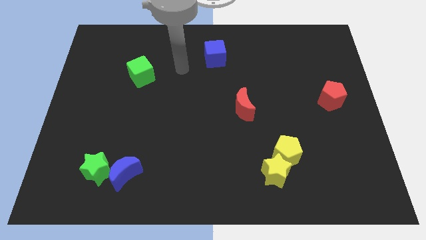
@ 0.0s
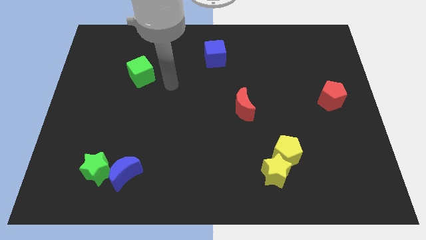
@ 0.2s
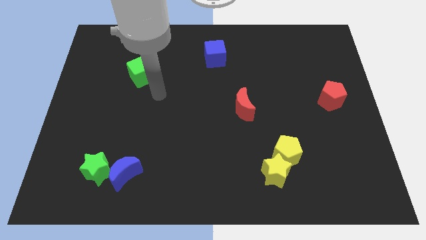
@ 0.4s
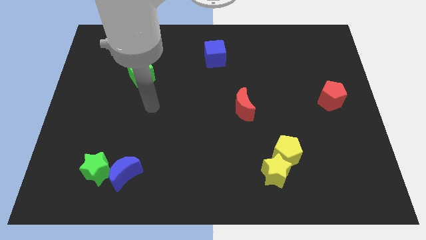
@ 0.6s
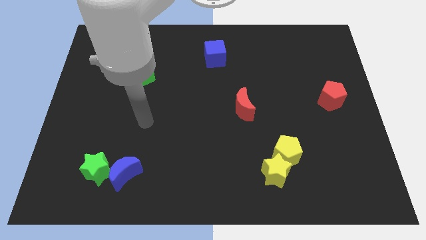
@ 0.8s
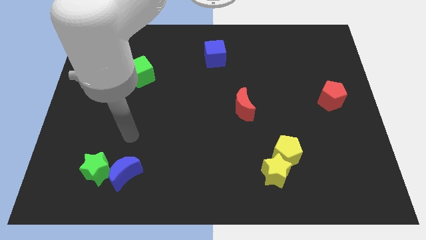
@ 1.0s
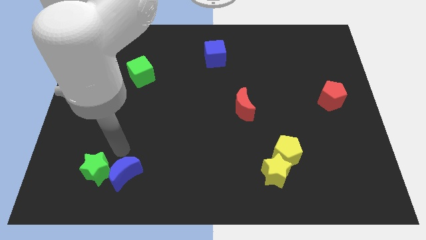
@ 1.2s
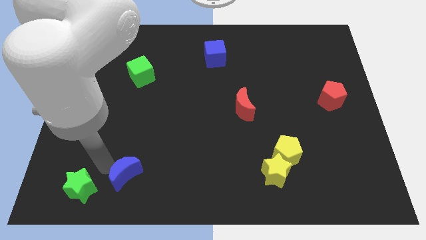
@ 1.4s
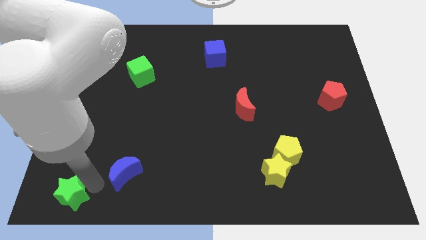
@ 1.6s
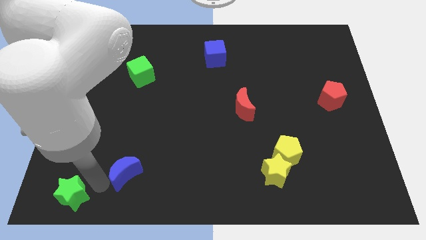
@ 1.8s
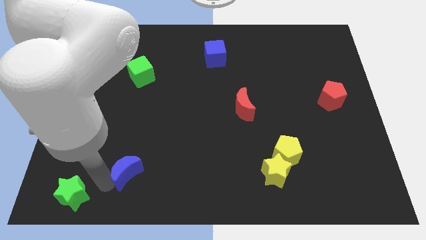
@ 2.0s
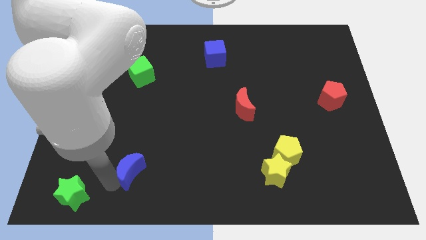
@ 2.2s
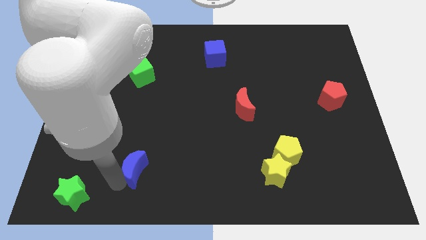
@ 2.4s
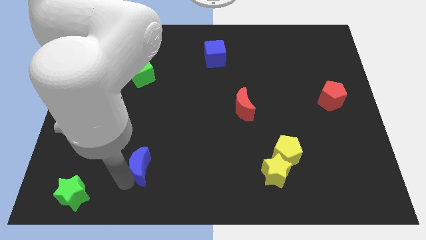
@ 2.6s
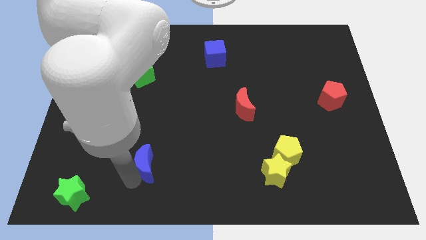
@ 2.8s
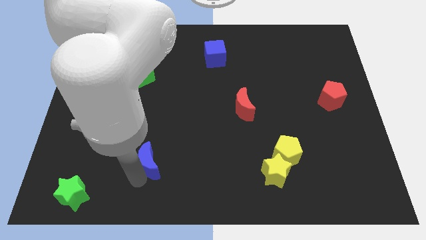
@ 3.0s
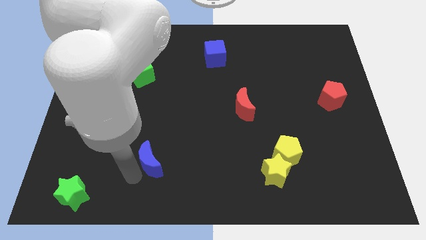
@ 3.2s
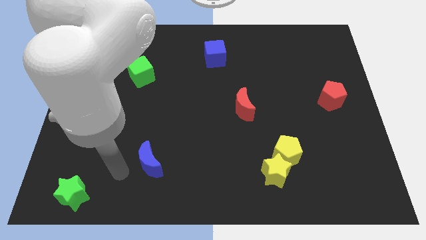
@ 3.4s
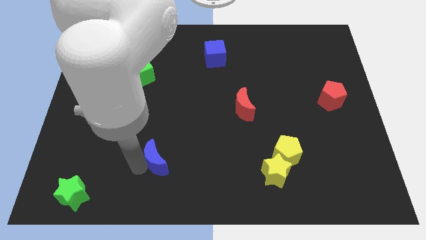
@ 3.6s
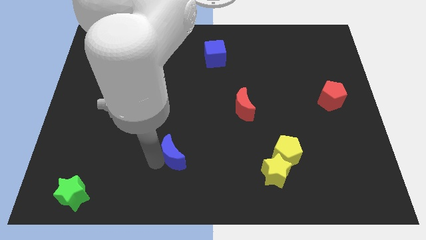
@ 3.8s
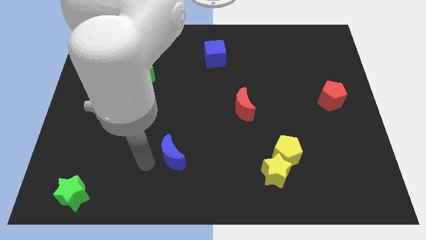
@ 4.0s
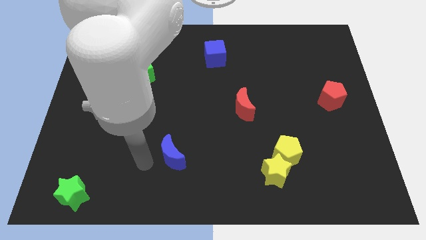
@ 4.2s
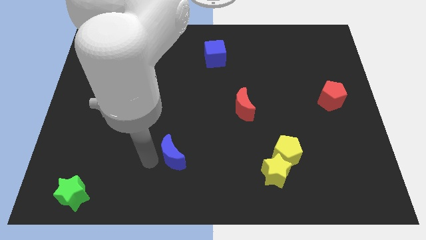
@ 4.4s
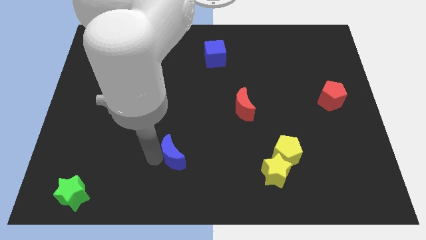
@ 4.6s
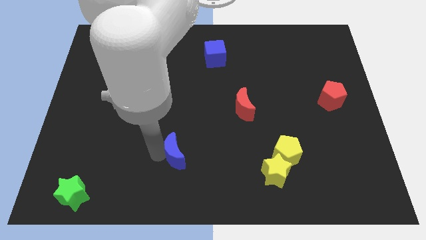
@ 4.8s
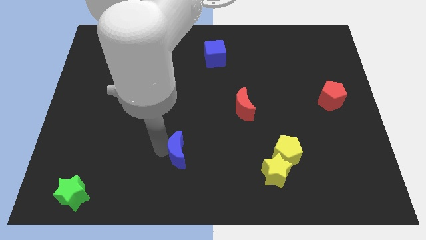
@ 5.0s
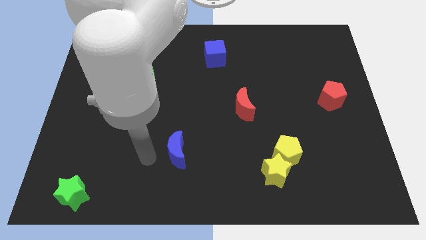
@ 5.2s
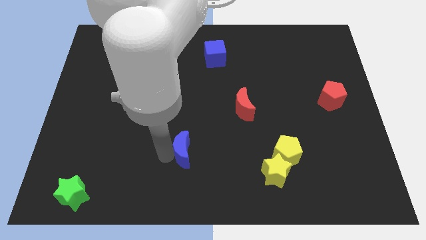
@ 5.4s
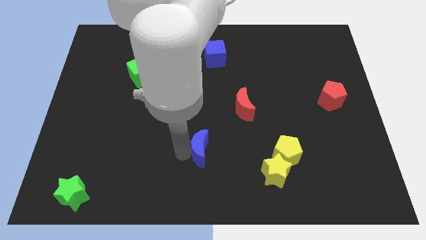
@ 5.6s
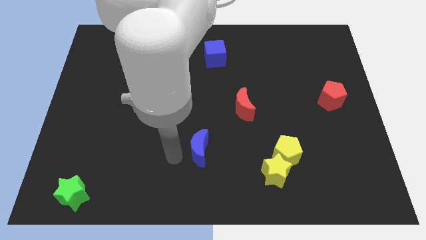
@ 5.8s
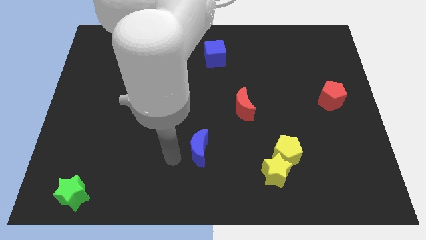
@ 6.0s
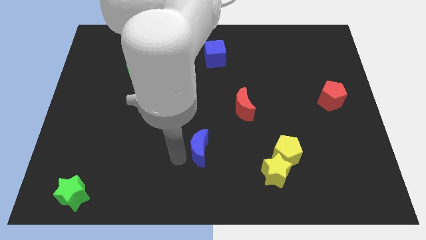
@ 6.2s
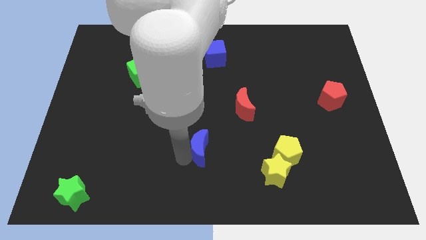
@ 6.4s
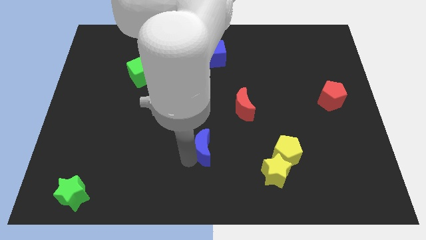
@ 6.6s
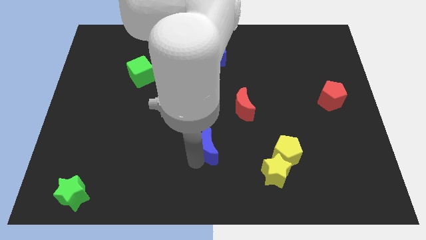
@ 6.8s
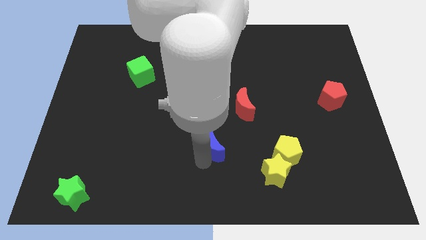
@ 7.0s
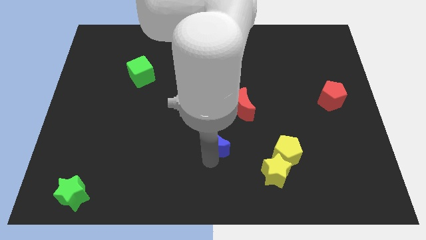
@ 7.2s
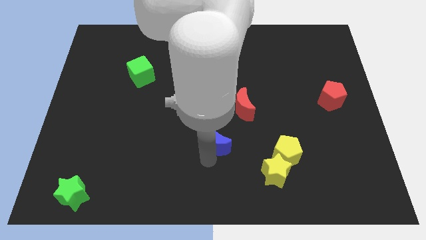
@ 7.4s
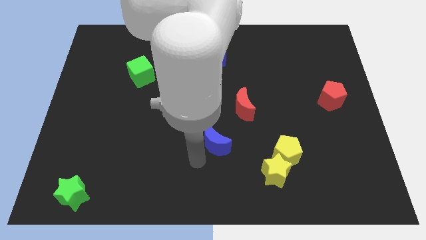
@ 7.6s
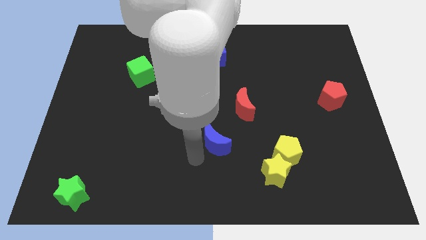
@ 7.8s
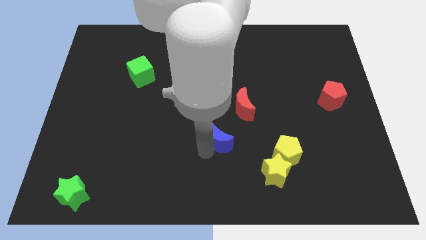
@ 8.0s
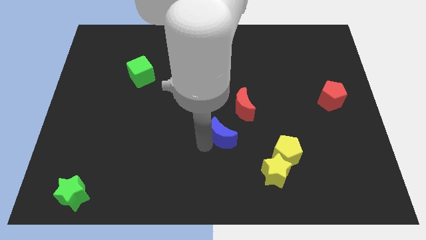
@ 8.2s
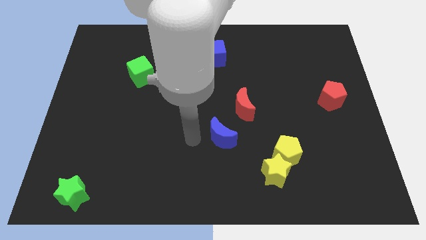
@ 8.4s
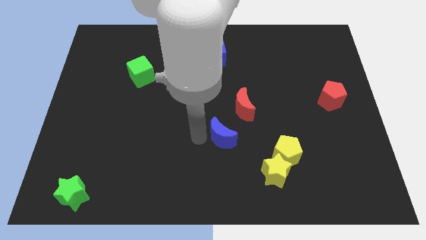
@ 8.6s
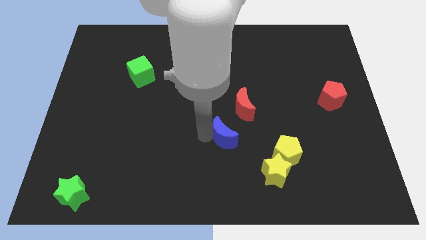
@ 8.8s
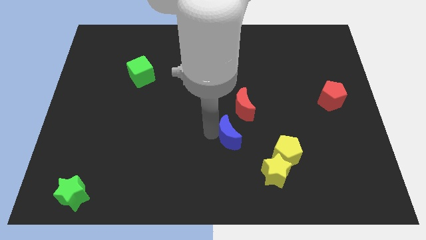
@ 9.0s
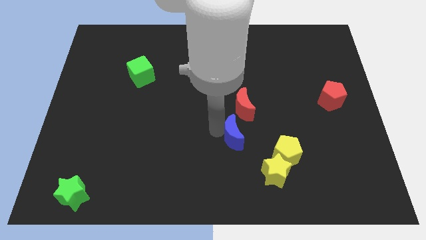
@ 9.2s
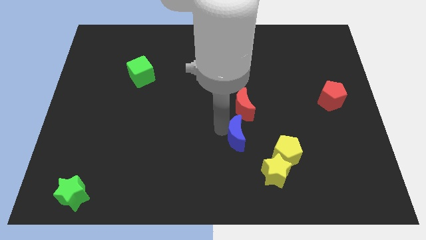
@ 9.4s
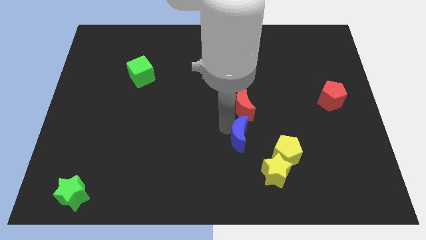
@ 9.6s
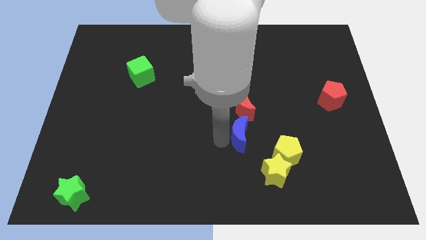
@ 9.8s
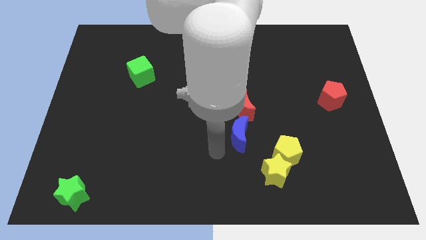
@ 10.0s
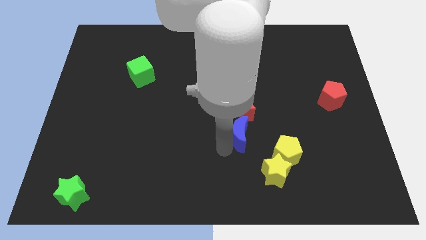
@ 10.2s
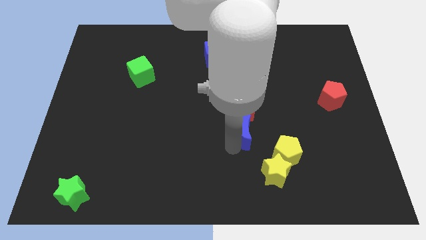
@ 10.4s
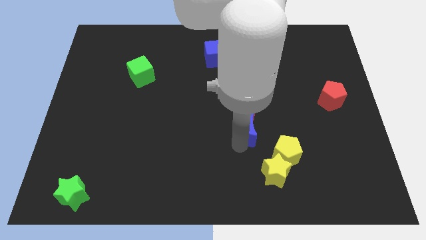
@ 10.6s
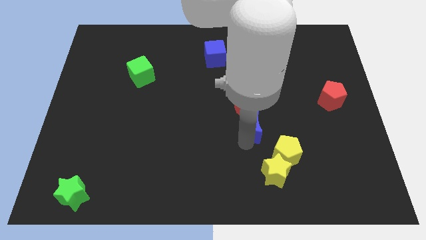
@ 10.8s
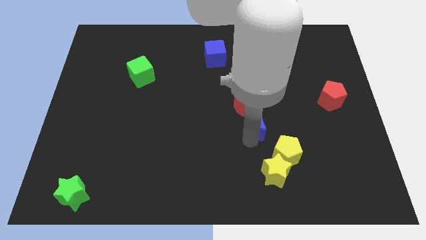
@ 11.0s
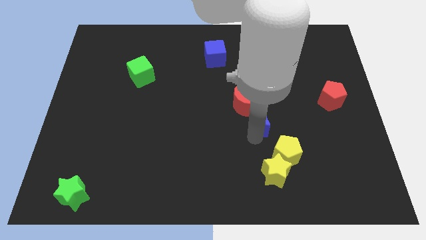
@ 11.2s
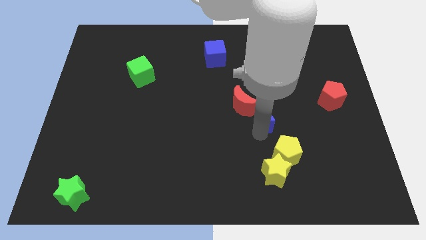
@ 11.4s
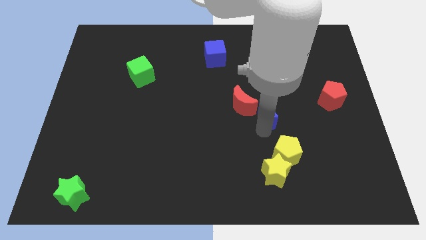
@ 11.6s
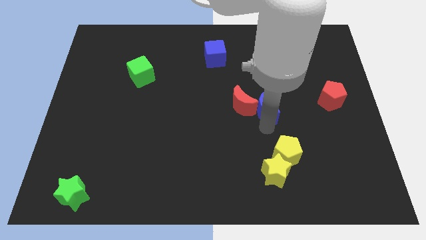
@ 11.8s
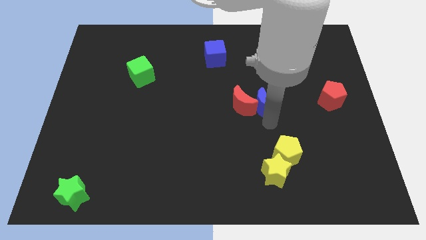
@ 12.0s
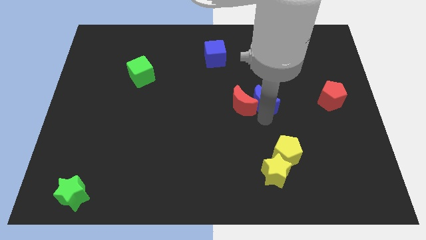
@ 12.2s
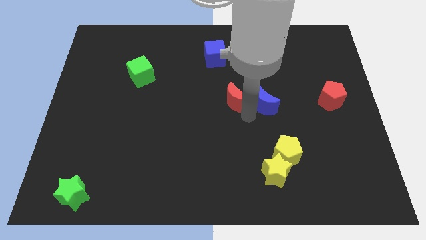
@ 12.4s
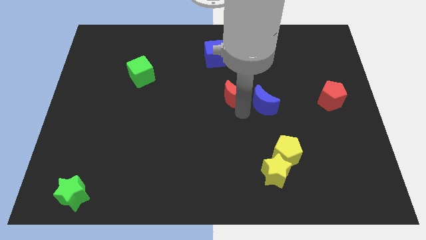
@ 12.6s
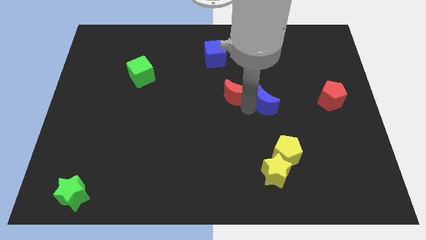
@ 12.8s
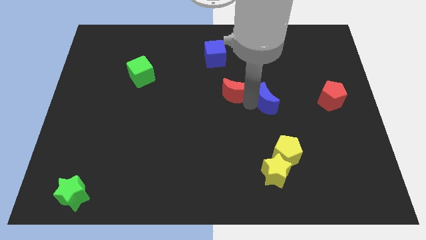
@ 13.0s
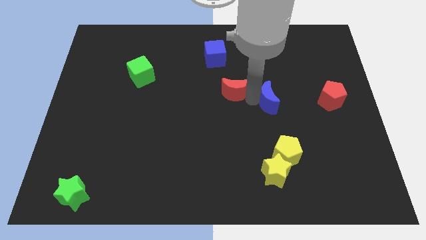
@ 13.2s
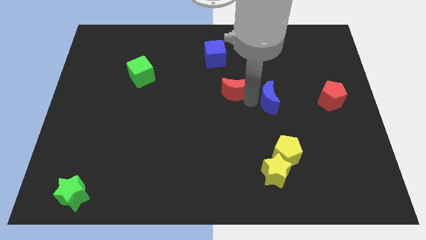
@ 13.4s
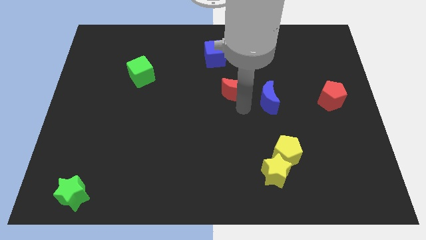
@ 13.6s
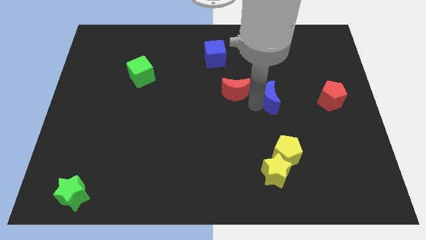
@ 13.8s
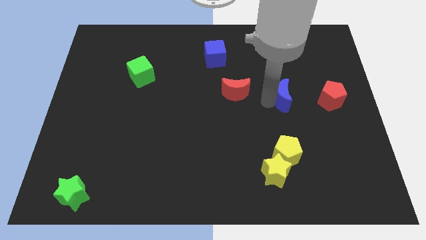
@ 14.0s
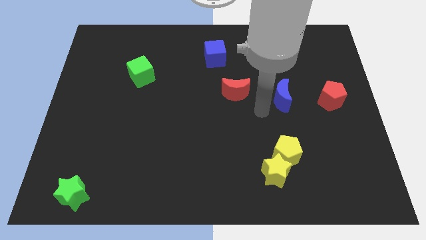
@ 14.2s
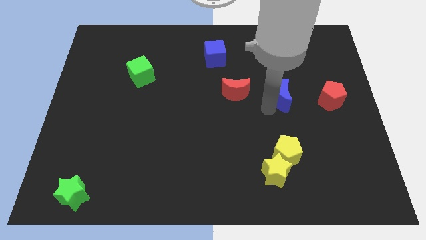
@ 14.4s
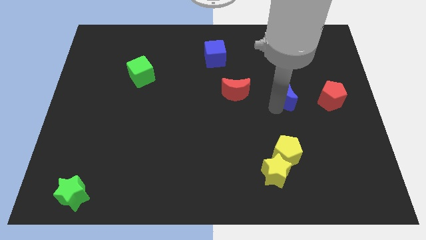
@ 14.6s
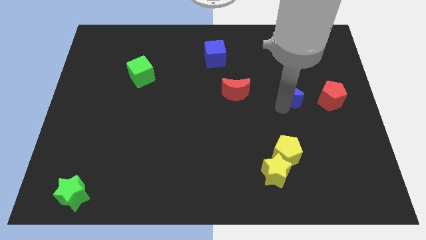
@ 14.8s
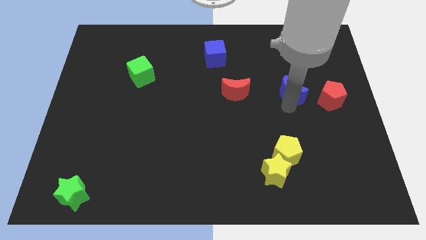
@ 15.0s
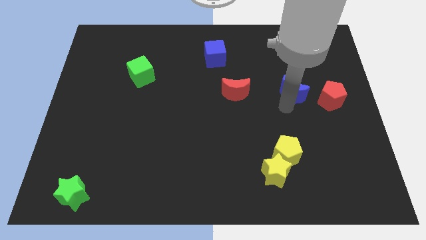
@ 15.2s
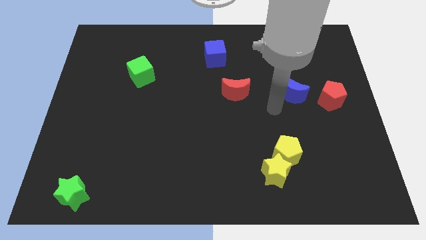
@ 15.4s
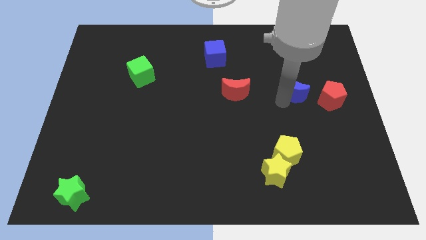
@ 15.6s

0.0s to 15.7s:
push the blue moon diagonally up and to the left of the red pentagon
